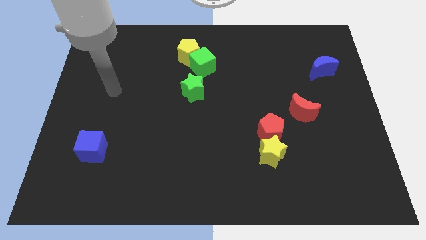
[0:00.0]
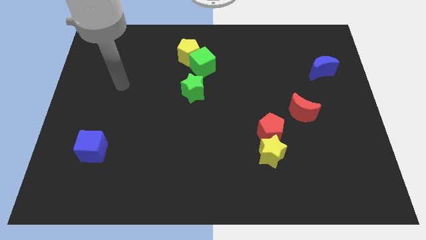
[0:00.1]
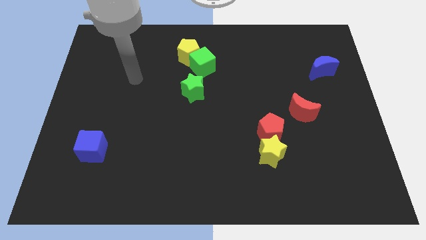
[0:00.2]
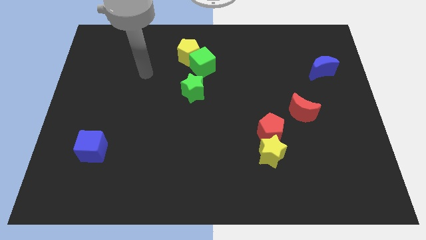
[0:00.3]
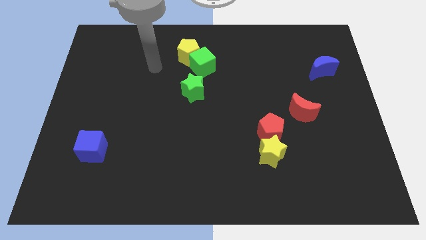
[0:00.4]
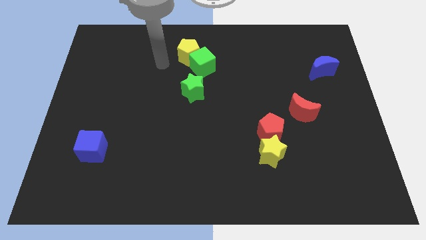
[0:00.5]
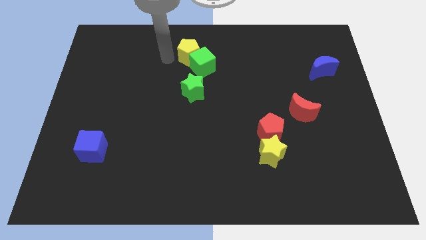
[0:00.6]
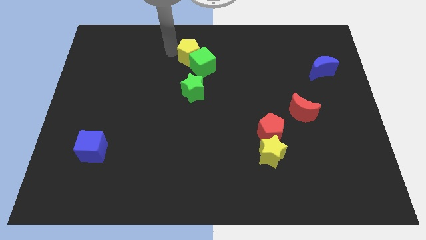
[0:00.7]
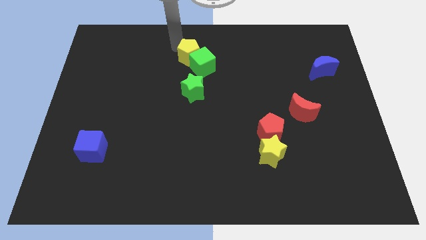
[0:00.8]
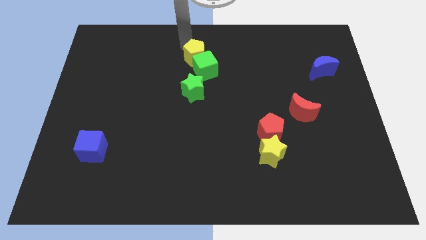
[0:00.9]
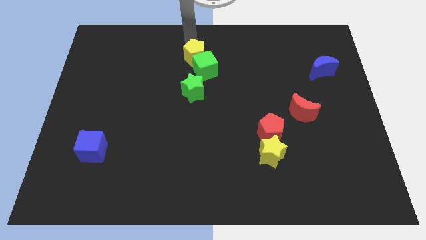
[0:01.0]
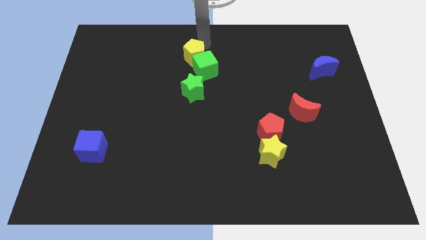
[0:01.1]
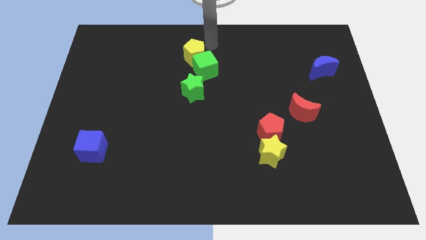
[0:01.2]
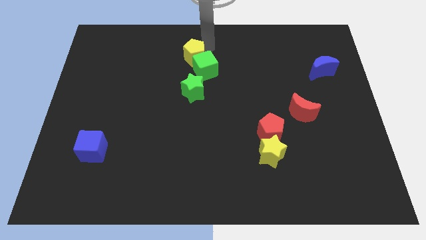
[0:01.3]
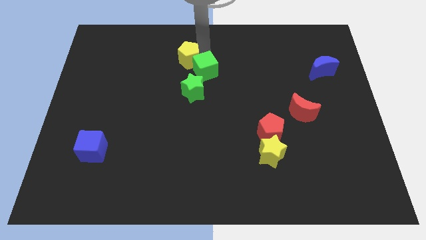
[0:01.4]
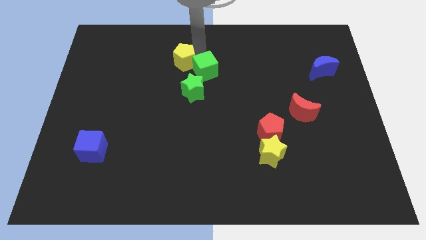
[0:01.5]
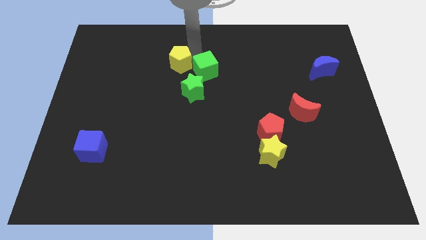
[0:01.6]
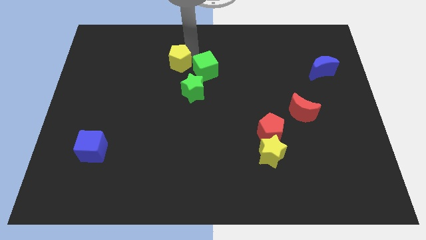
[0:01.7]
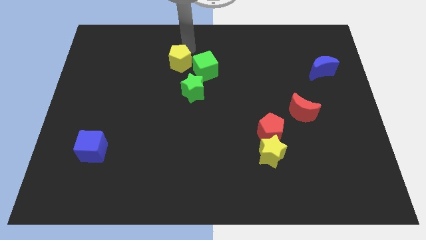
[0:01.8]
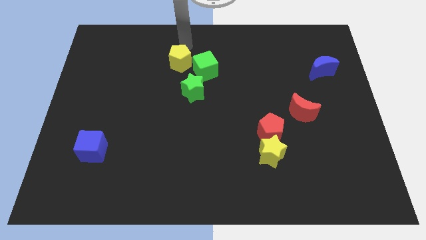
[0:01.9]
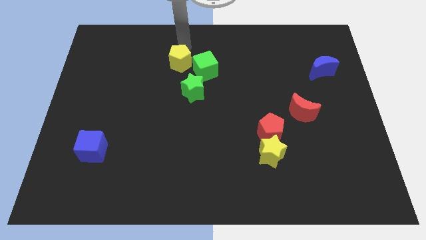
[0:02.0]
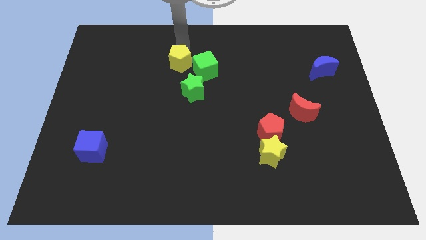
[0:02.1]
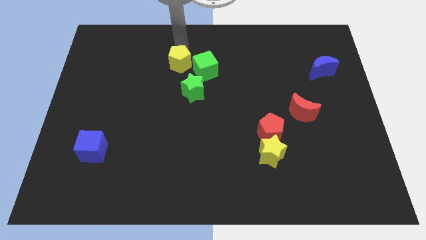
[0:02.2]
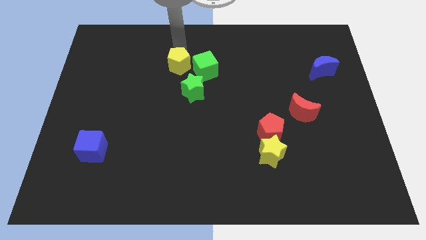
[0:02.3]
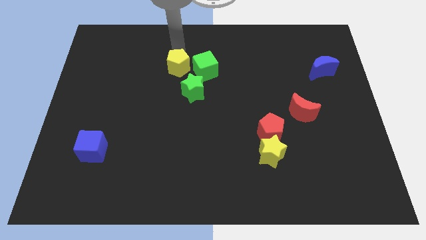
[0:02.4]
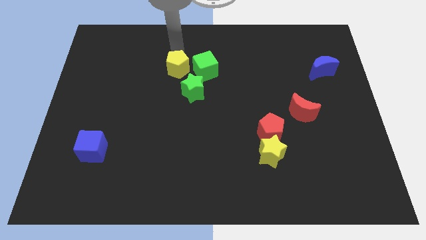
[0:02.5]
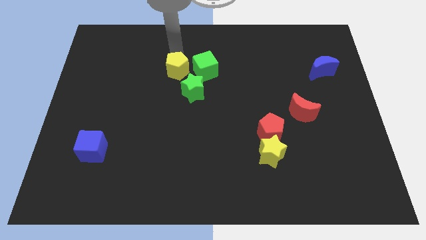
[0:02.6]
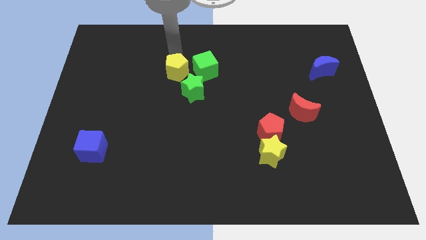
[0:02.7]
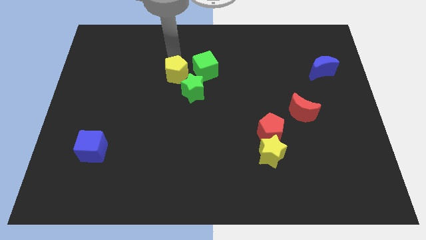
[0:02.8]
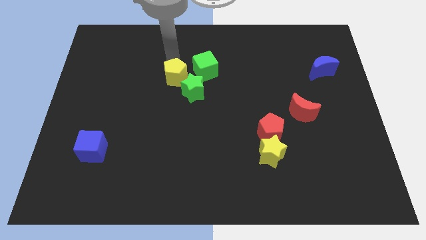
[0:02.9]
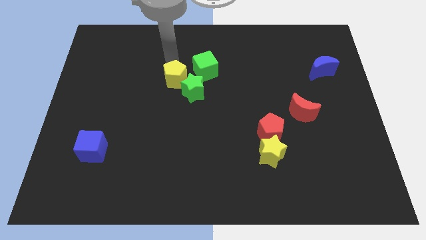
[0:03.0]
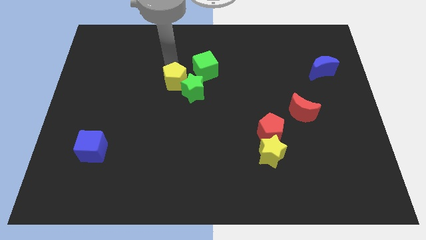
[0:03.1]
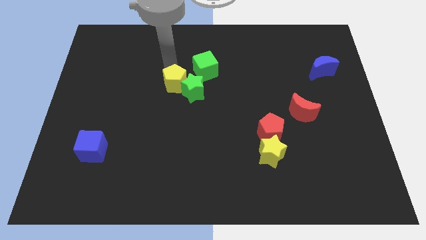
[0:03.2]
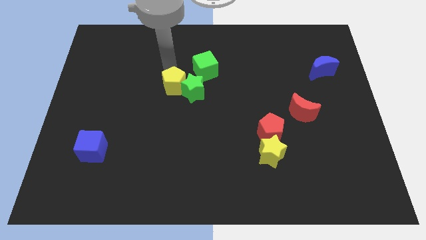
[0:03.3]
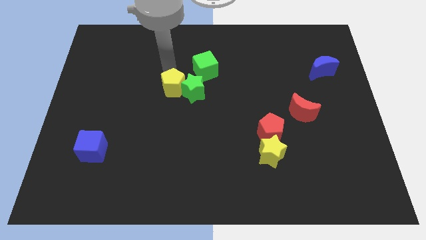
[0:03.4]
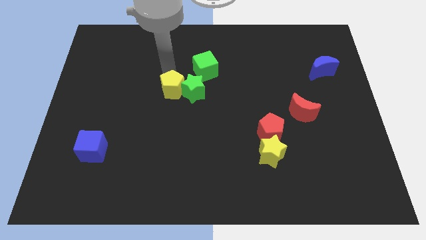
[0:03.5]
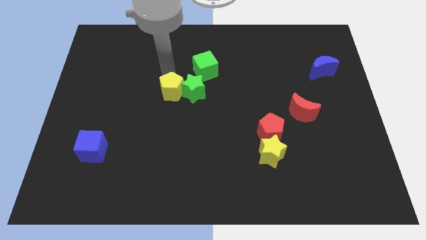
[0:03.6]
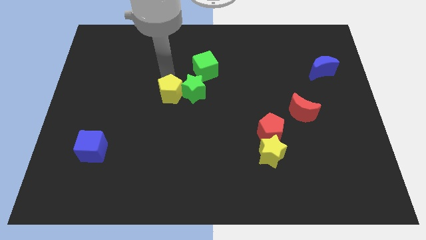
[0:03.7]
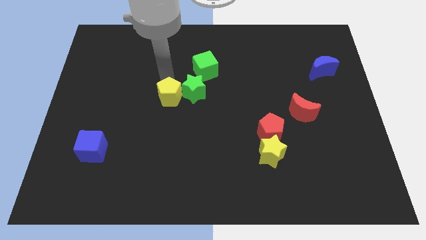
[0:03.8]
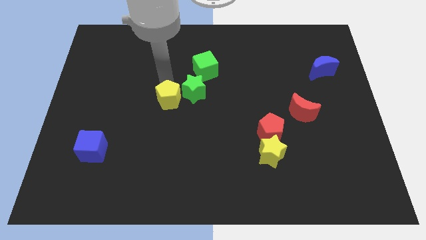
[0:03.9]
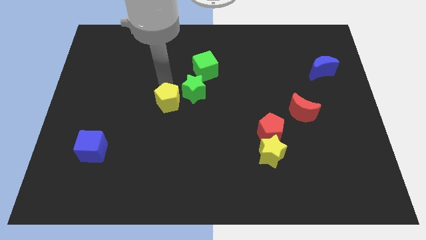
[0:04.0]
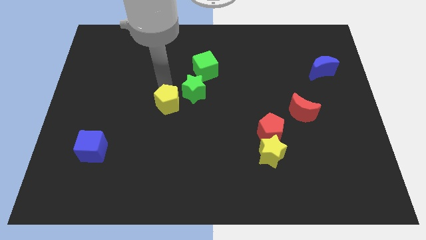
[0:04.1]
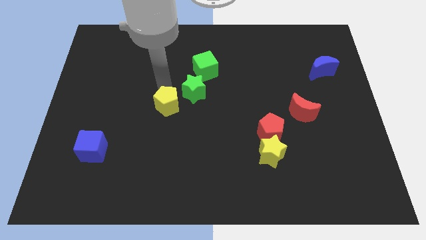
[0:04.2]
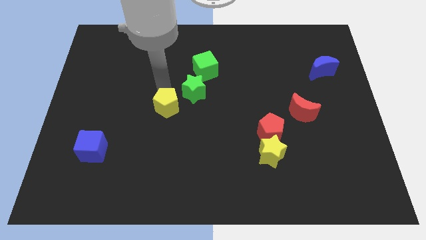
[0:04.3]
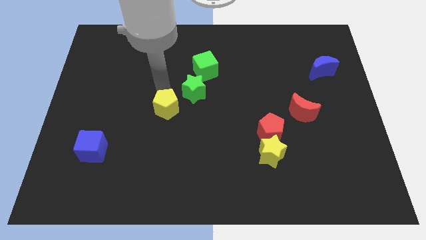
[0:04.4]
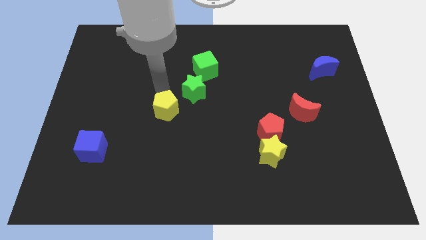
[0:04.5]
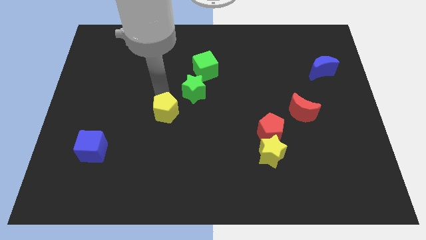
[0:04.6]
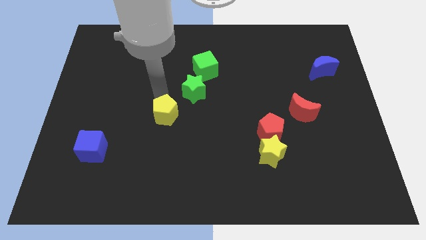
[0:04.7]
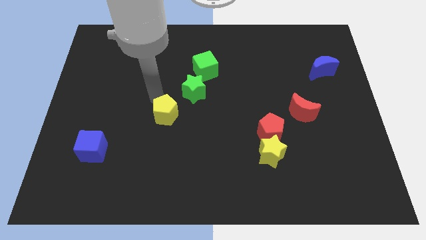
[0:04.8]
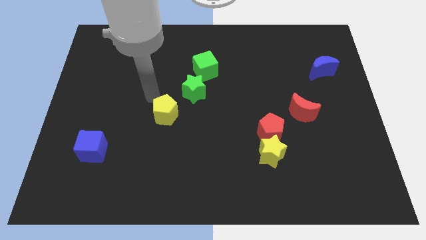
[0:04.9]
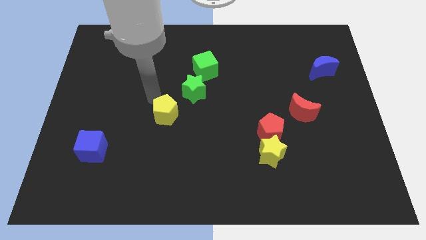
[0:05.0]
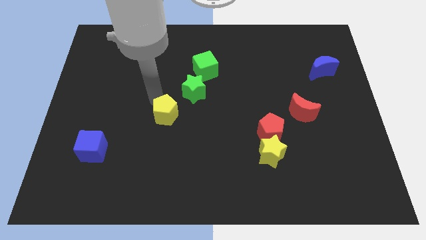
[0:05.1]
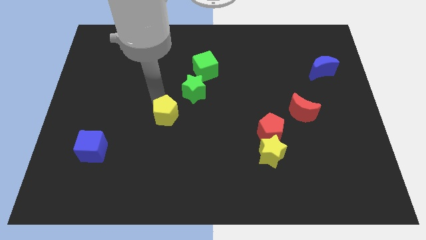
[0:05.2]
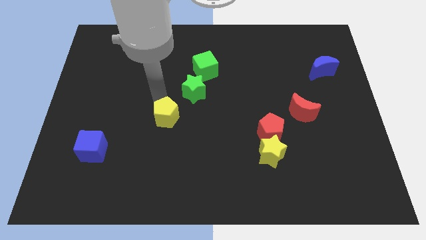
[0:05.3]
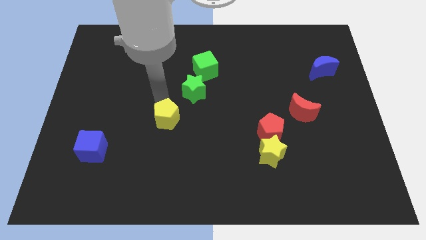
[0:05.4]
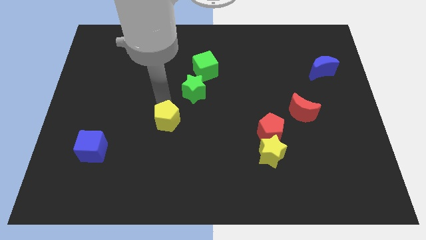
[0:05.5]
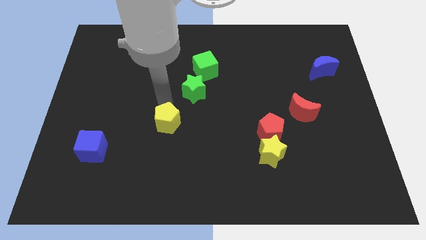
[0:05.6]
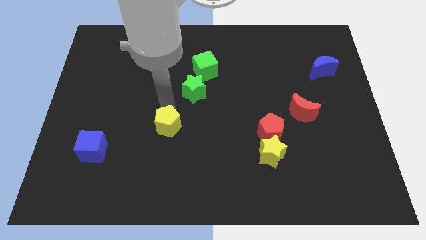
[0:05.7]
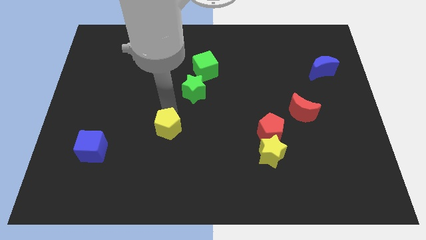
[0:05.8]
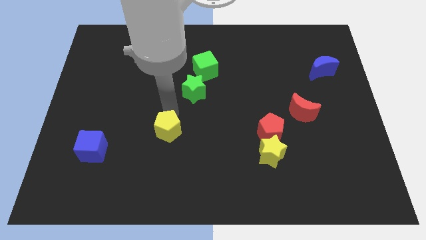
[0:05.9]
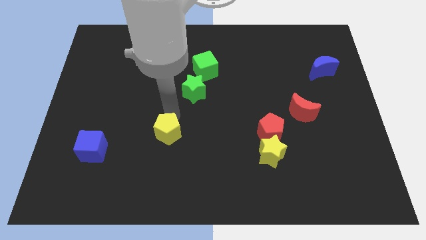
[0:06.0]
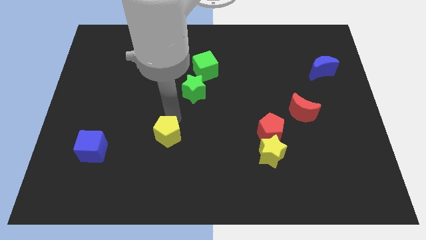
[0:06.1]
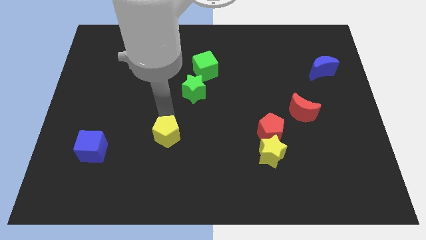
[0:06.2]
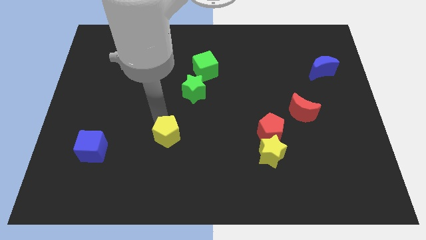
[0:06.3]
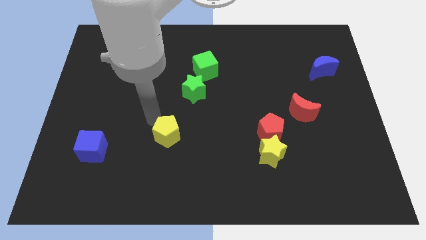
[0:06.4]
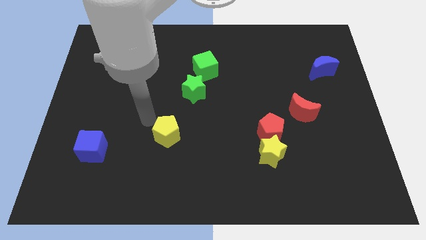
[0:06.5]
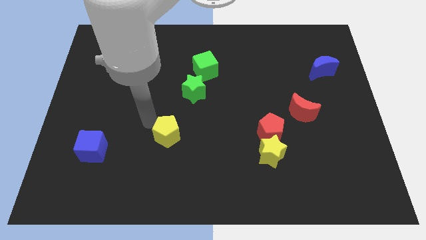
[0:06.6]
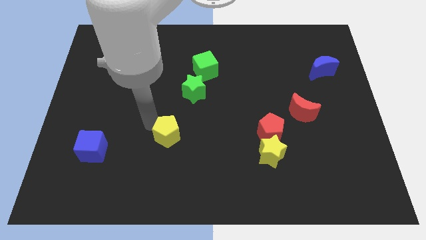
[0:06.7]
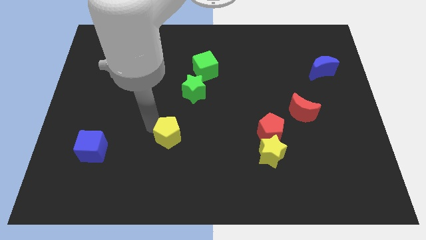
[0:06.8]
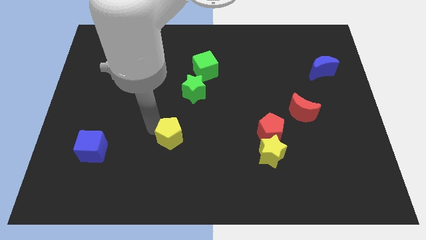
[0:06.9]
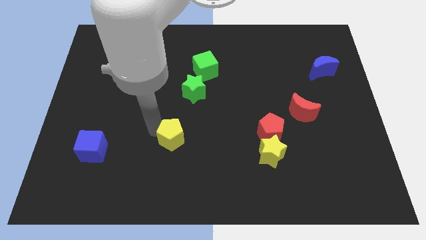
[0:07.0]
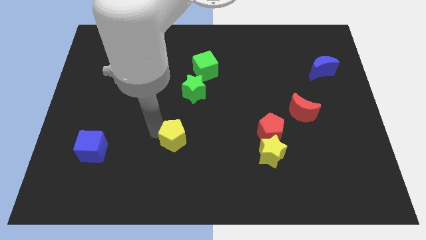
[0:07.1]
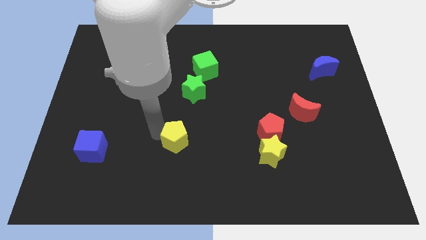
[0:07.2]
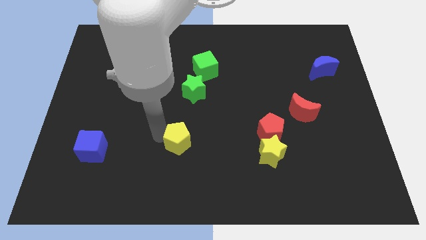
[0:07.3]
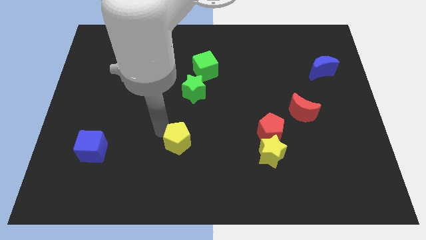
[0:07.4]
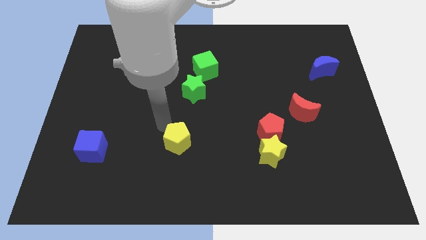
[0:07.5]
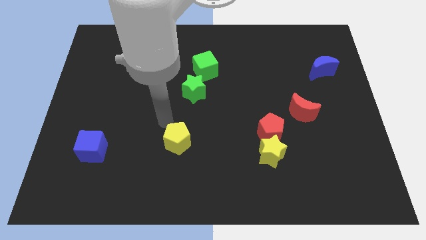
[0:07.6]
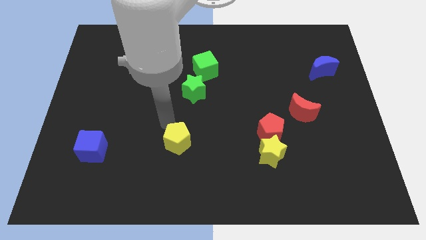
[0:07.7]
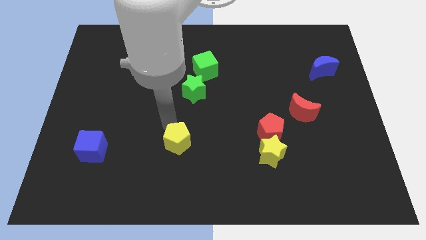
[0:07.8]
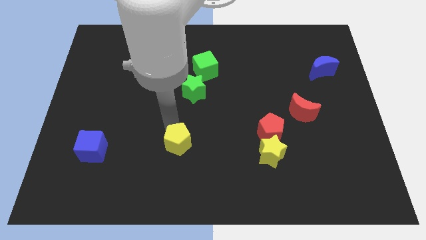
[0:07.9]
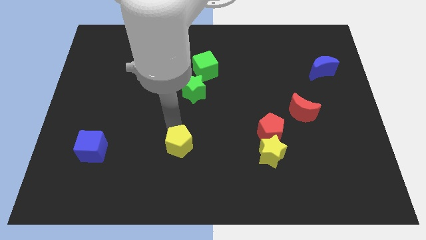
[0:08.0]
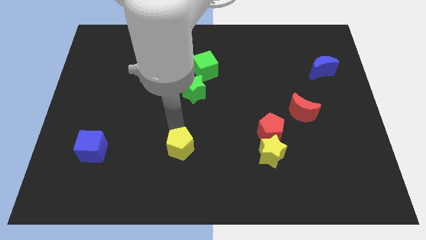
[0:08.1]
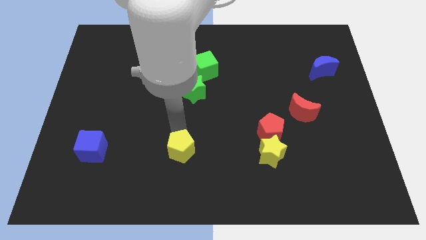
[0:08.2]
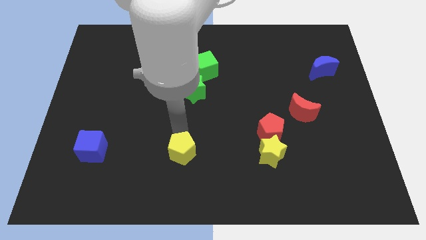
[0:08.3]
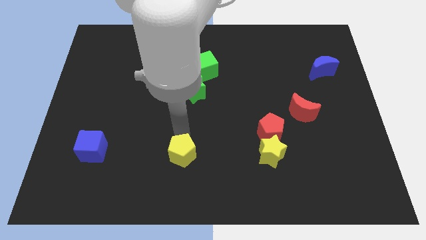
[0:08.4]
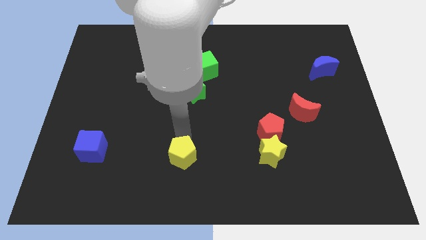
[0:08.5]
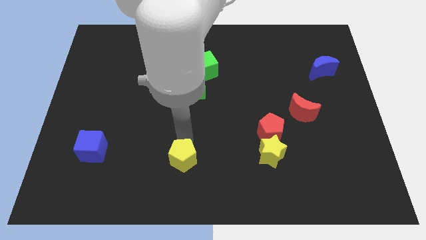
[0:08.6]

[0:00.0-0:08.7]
move the yellow pentagon to the bottom
